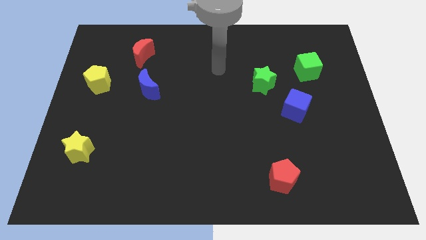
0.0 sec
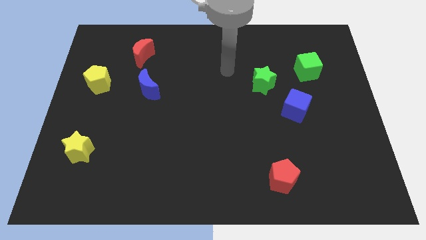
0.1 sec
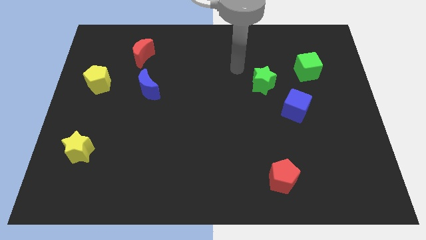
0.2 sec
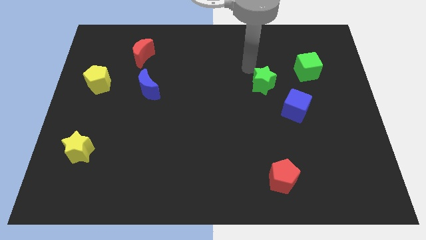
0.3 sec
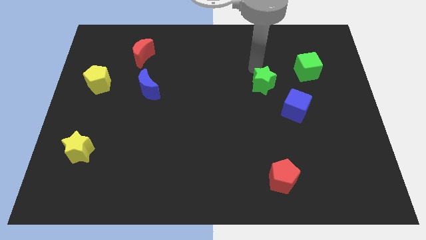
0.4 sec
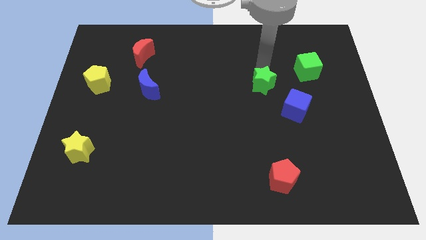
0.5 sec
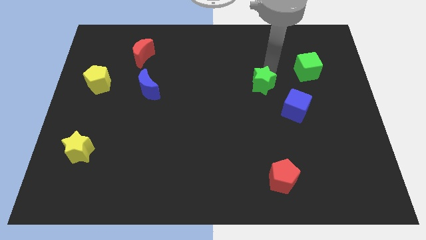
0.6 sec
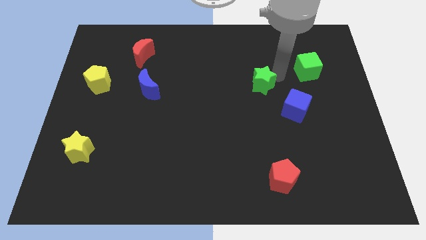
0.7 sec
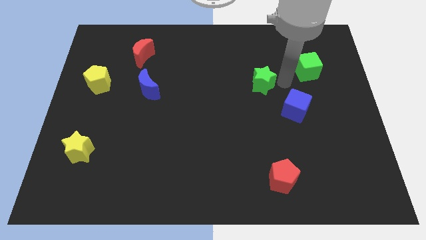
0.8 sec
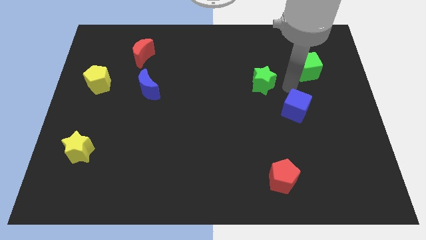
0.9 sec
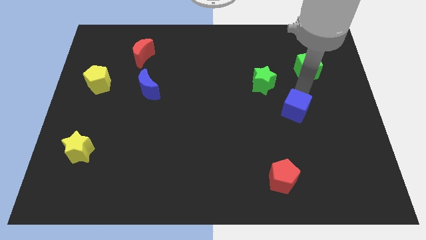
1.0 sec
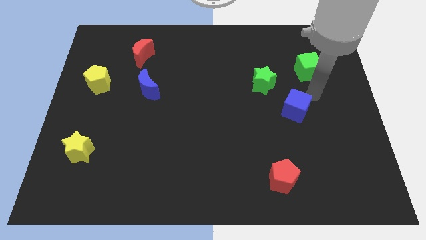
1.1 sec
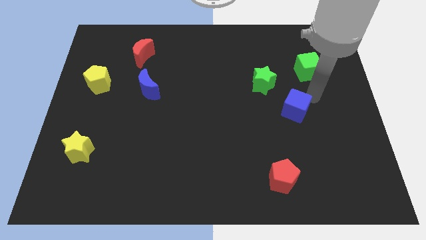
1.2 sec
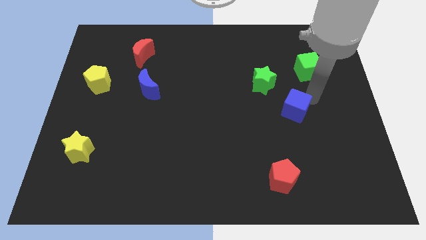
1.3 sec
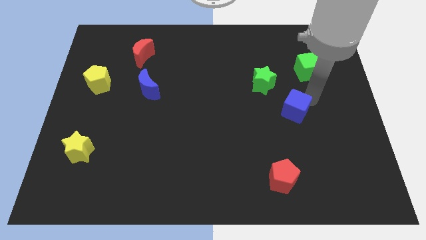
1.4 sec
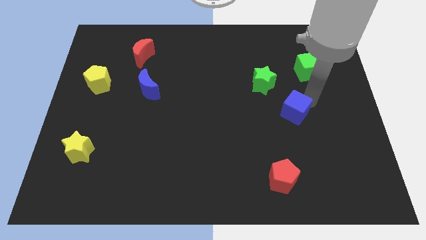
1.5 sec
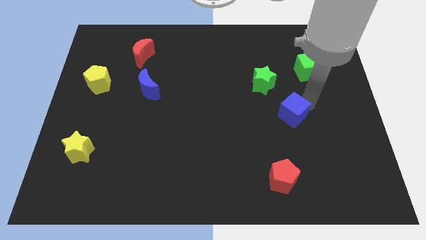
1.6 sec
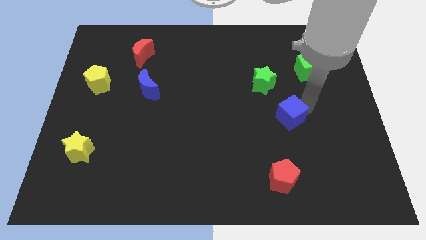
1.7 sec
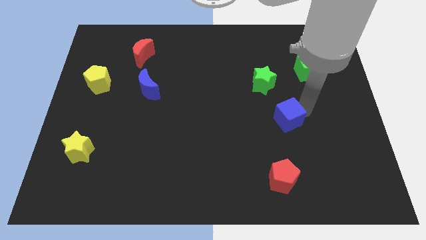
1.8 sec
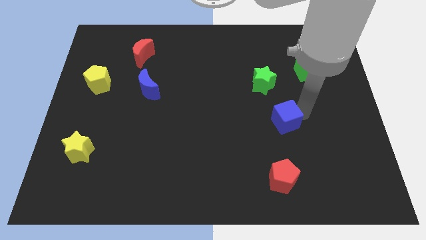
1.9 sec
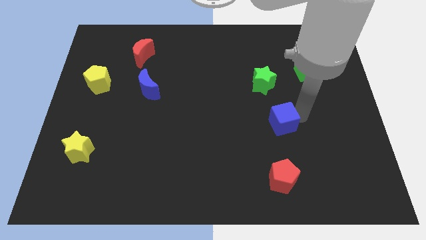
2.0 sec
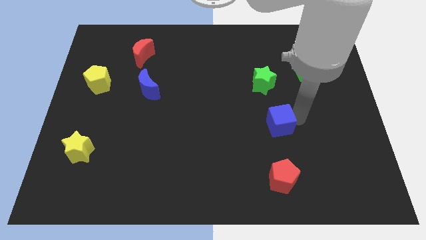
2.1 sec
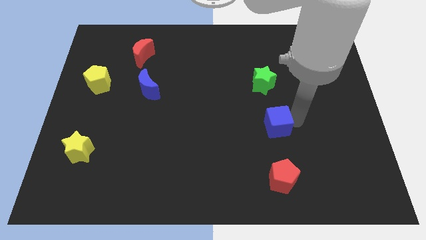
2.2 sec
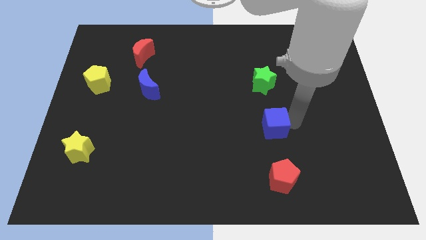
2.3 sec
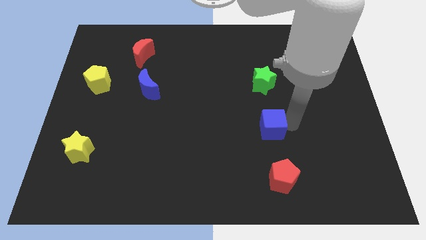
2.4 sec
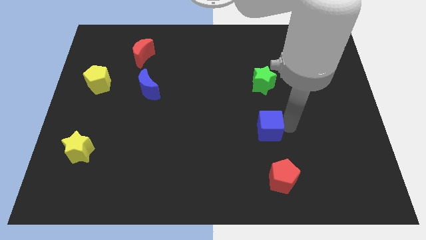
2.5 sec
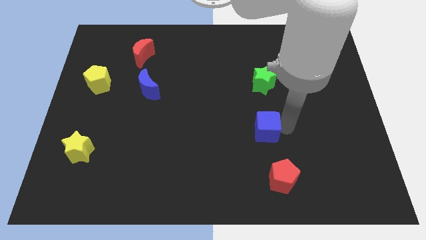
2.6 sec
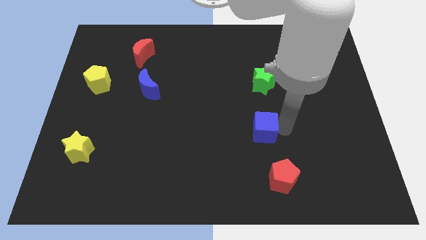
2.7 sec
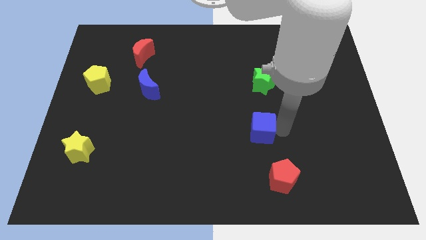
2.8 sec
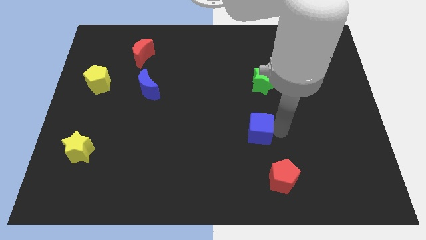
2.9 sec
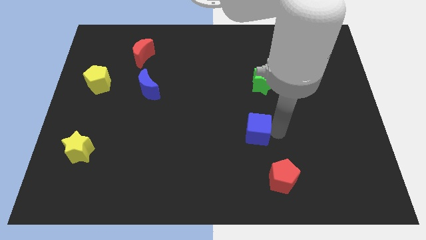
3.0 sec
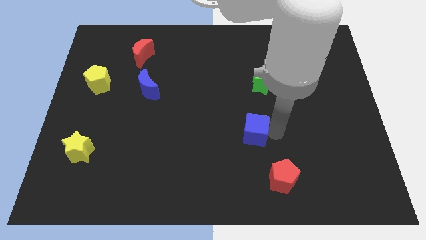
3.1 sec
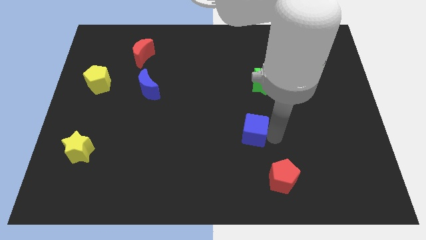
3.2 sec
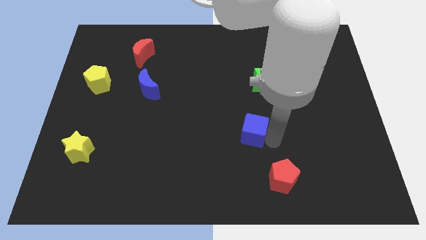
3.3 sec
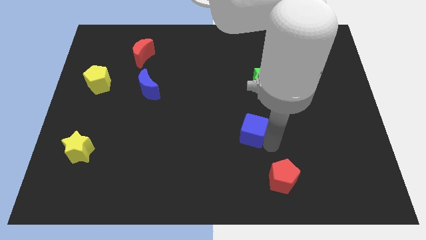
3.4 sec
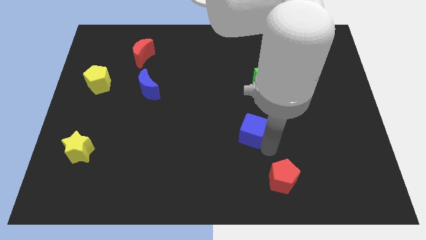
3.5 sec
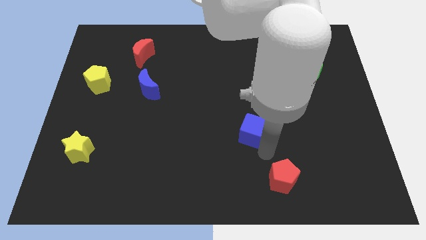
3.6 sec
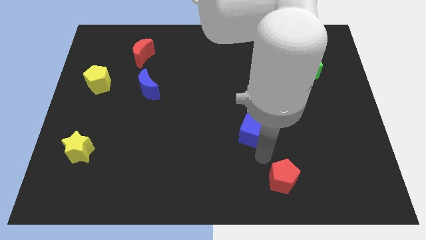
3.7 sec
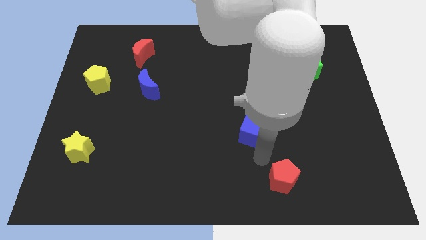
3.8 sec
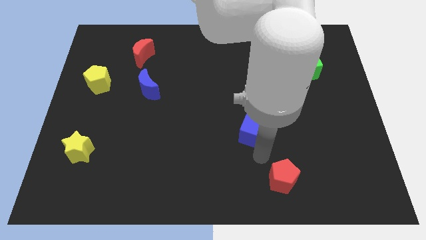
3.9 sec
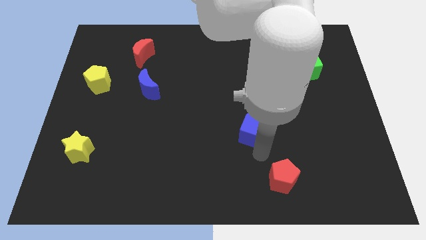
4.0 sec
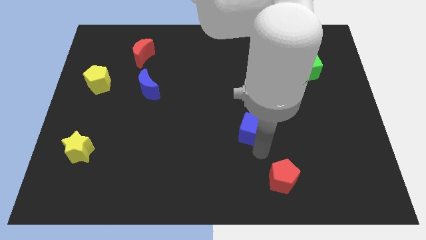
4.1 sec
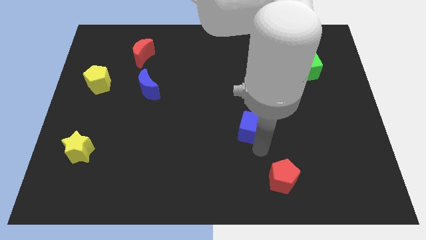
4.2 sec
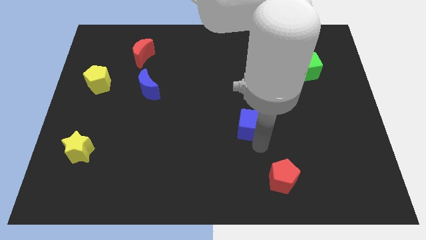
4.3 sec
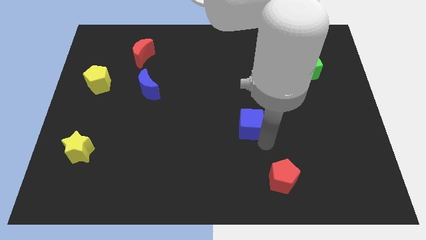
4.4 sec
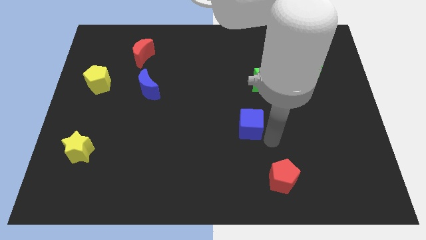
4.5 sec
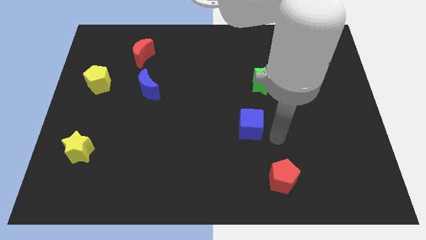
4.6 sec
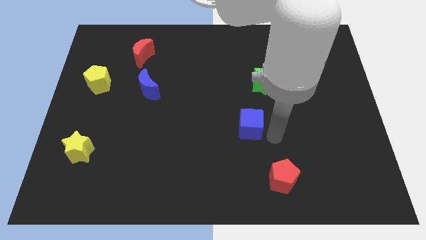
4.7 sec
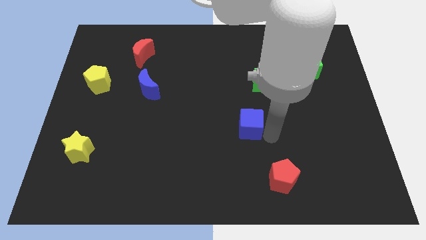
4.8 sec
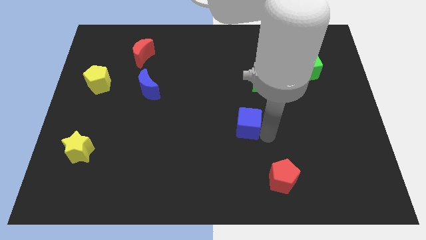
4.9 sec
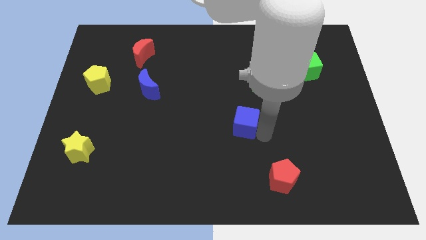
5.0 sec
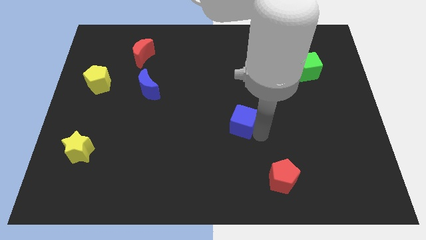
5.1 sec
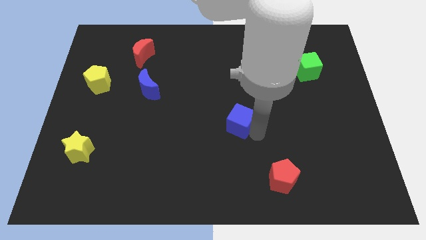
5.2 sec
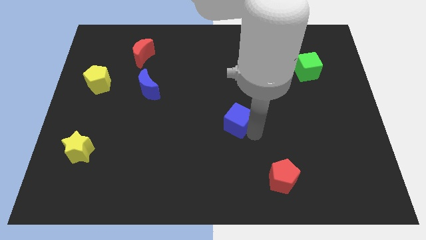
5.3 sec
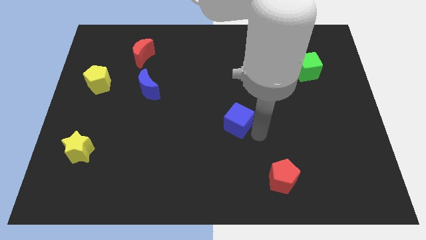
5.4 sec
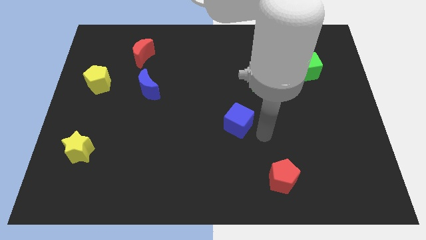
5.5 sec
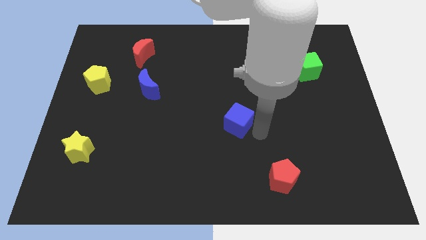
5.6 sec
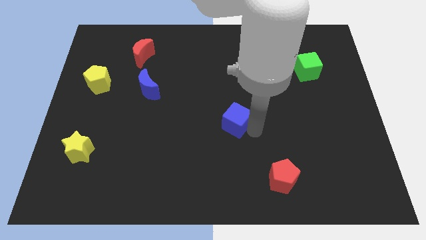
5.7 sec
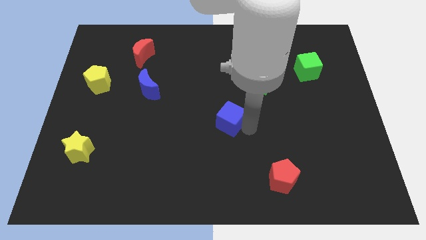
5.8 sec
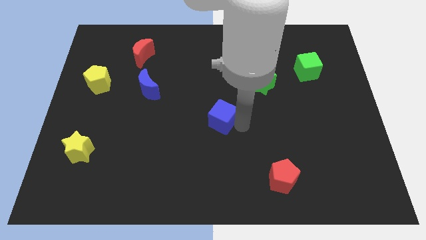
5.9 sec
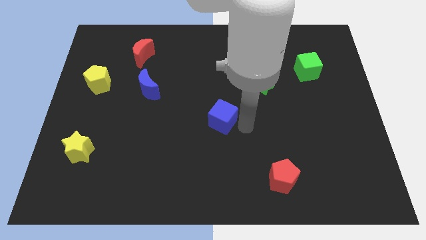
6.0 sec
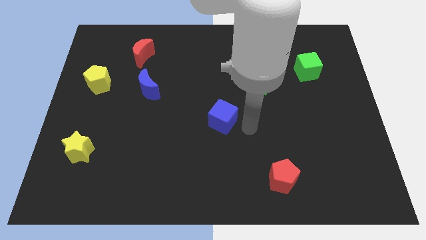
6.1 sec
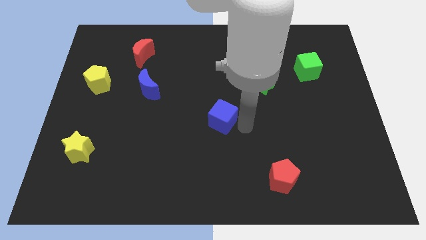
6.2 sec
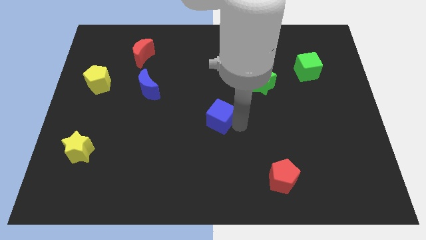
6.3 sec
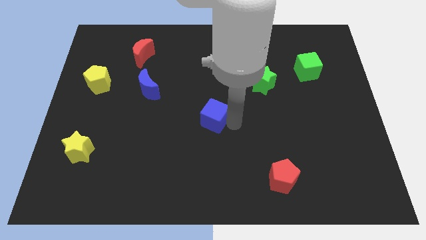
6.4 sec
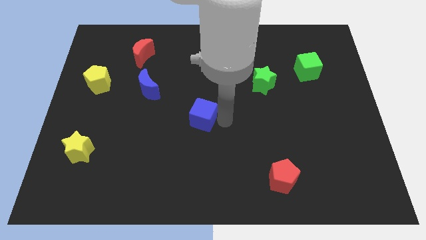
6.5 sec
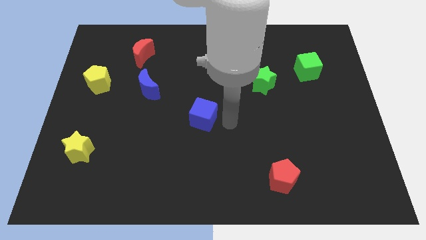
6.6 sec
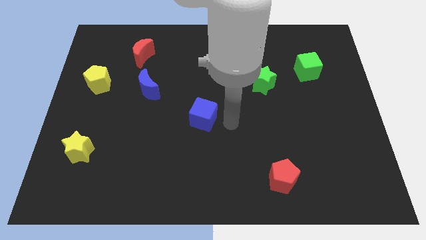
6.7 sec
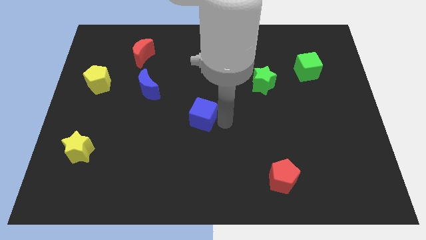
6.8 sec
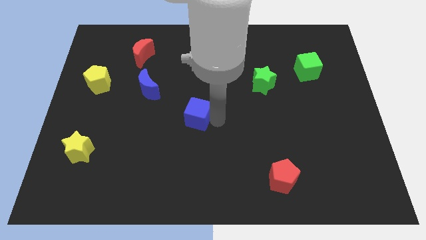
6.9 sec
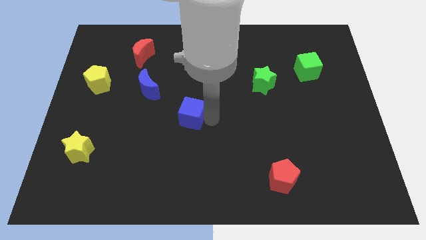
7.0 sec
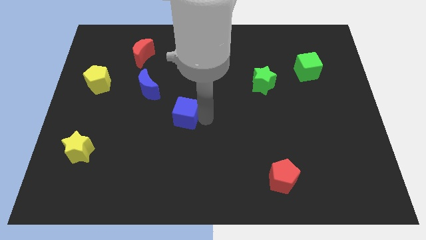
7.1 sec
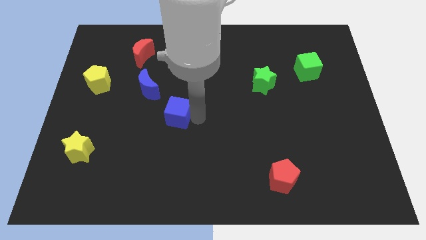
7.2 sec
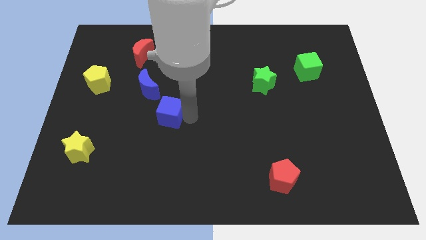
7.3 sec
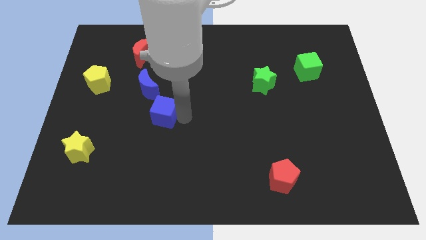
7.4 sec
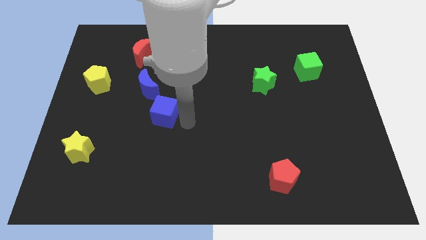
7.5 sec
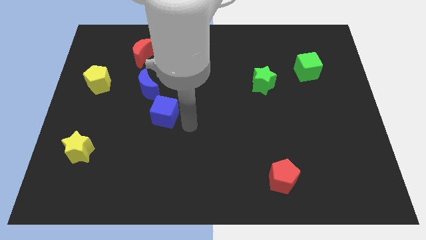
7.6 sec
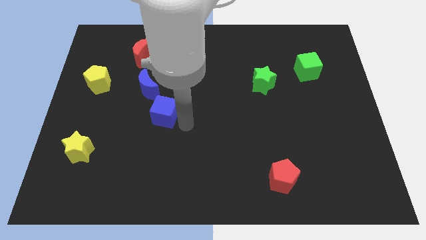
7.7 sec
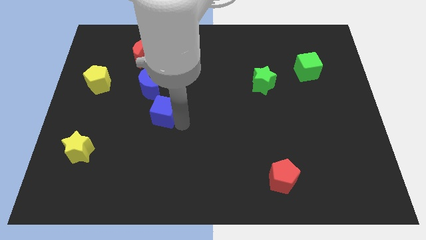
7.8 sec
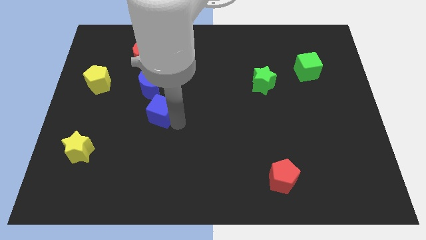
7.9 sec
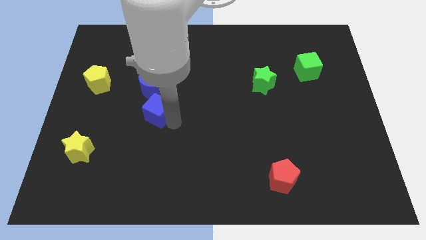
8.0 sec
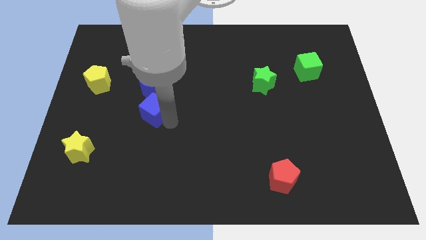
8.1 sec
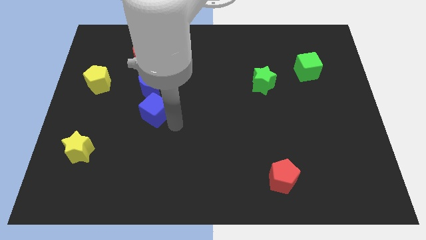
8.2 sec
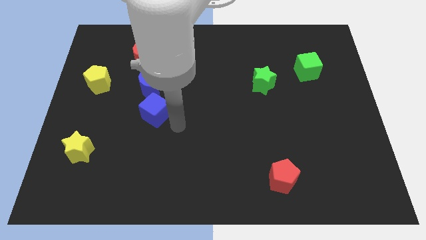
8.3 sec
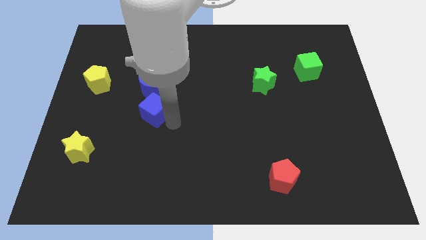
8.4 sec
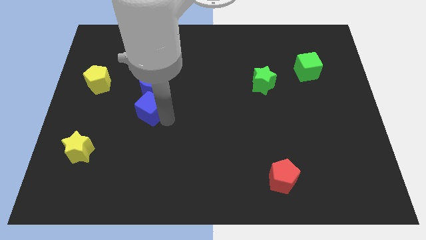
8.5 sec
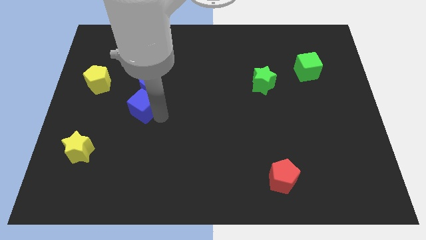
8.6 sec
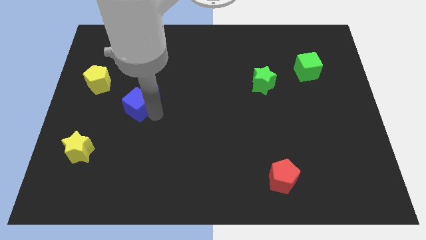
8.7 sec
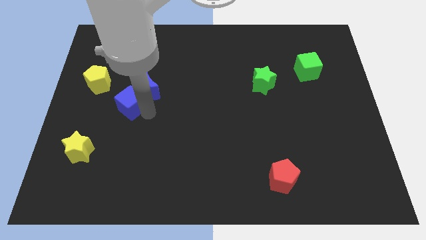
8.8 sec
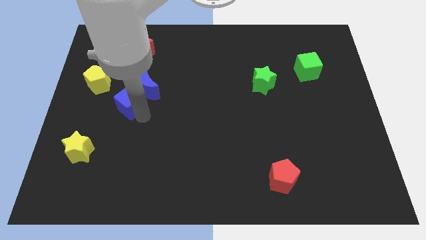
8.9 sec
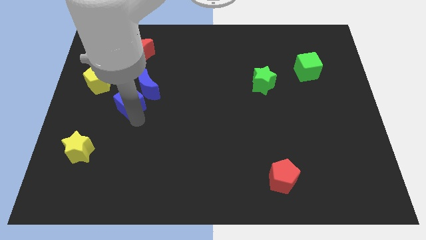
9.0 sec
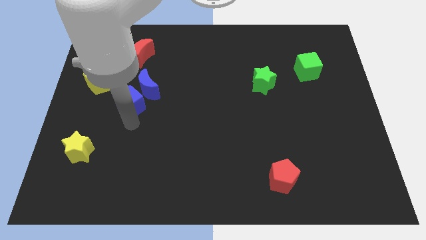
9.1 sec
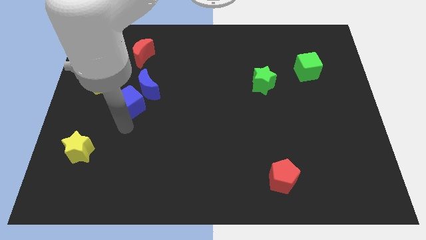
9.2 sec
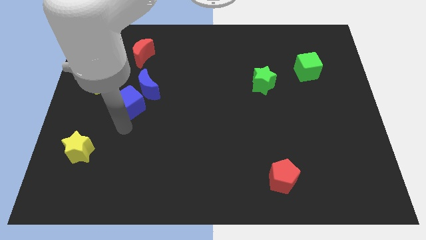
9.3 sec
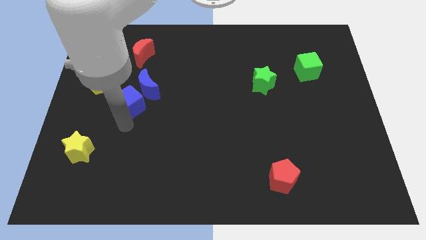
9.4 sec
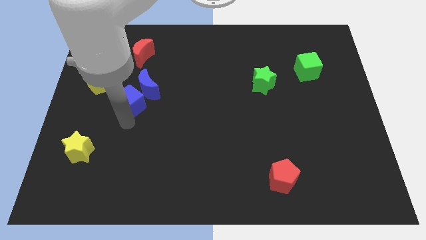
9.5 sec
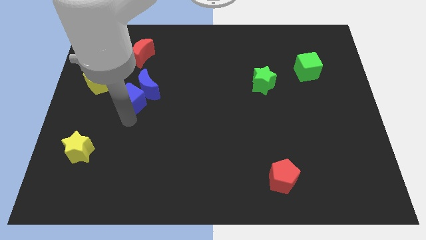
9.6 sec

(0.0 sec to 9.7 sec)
put the blue cube to the bottom side of the red moon
